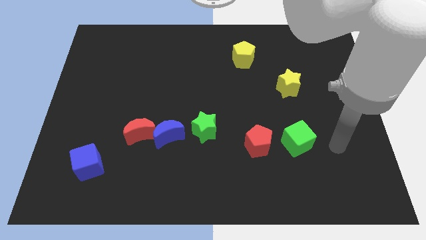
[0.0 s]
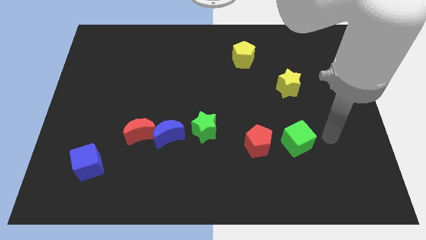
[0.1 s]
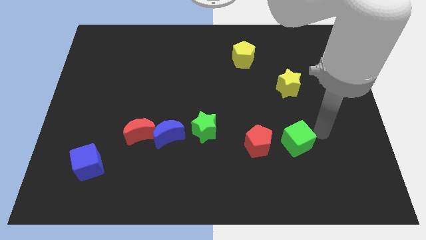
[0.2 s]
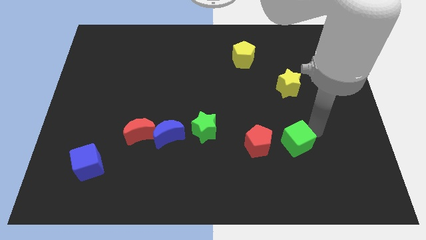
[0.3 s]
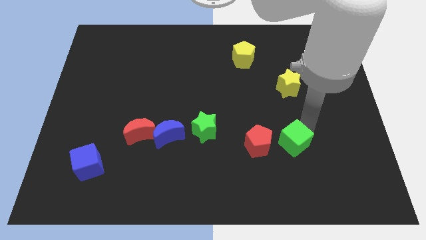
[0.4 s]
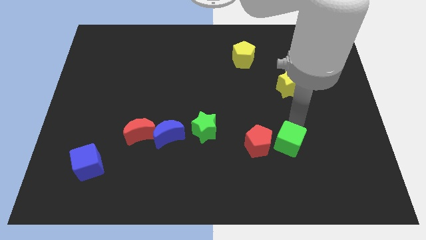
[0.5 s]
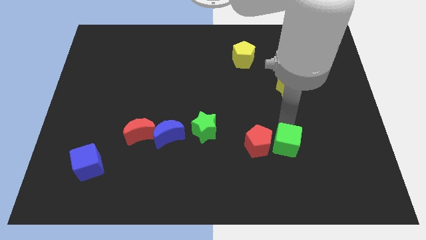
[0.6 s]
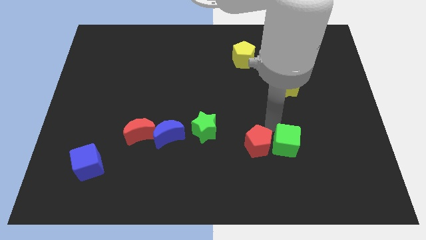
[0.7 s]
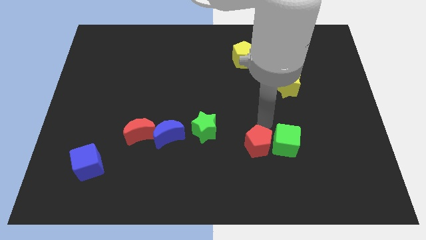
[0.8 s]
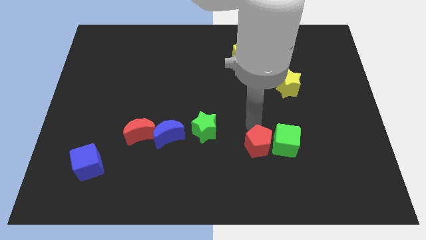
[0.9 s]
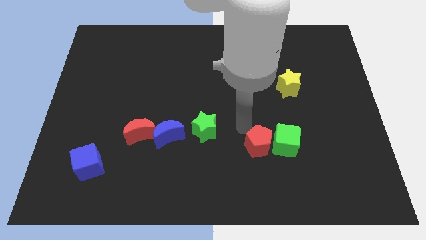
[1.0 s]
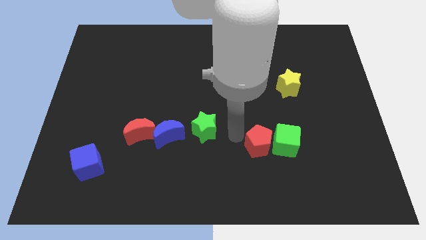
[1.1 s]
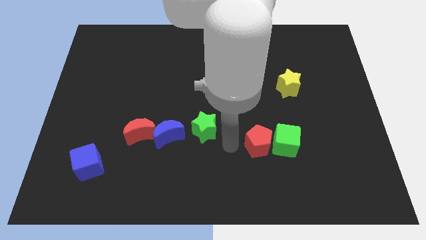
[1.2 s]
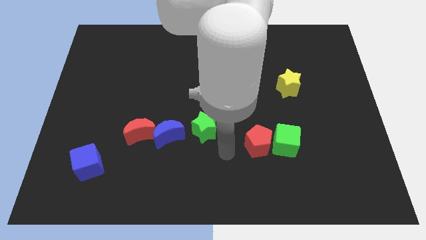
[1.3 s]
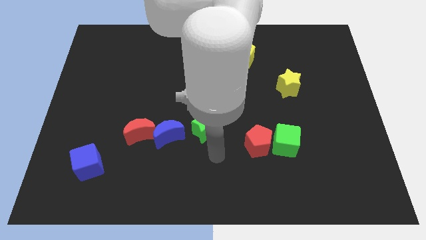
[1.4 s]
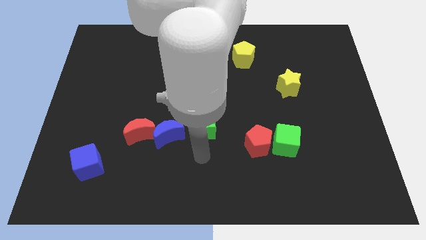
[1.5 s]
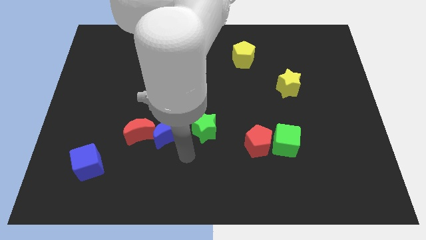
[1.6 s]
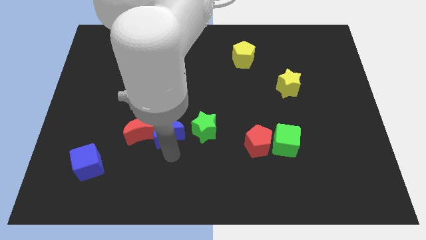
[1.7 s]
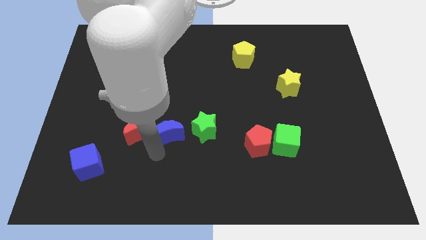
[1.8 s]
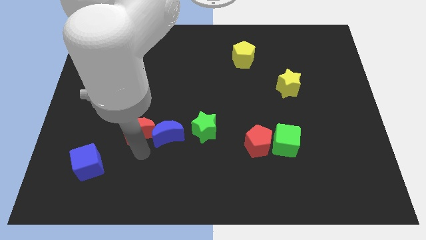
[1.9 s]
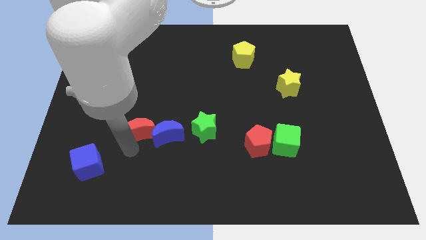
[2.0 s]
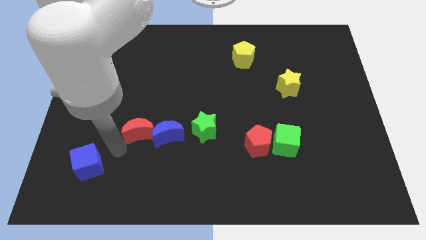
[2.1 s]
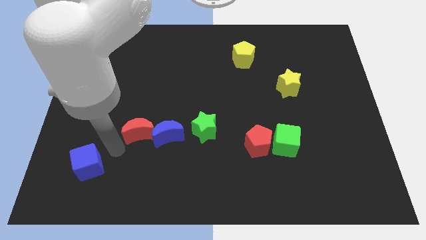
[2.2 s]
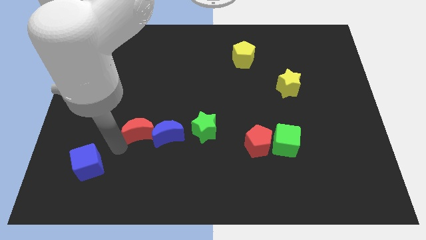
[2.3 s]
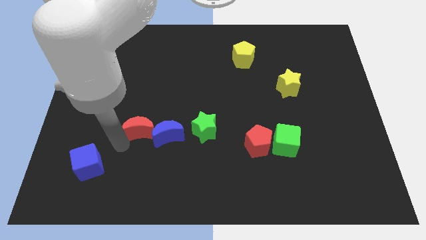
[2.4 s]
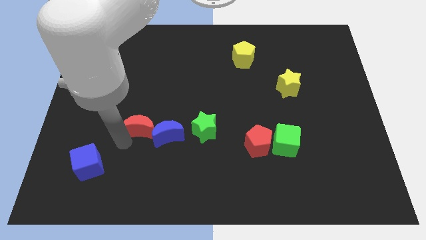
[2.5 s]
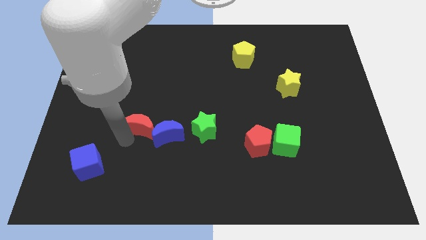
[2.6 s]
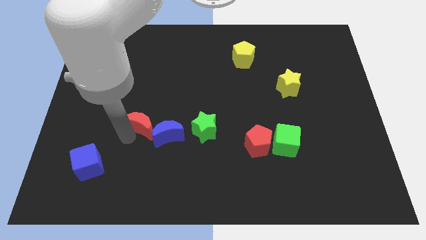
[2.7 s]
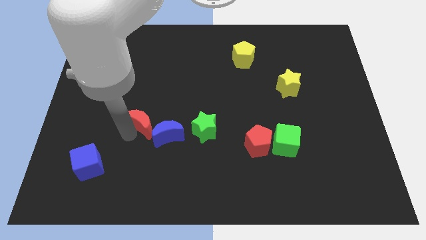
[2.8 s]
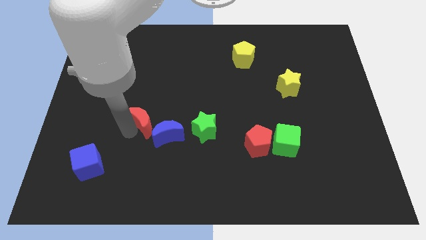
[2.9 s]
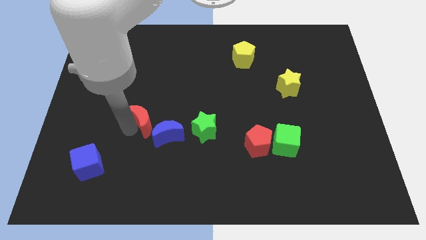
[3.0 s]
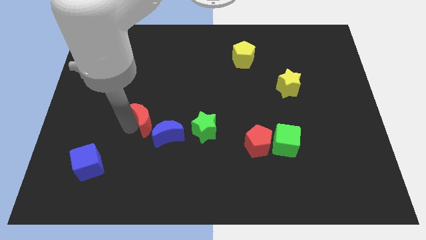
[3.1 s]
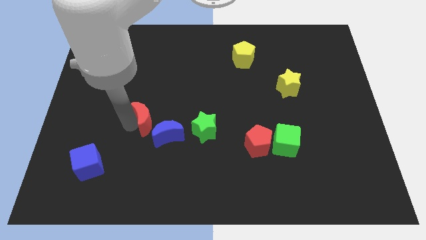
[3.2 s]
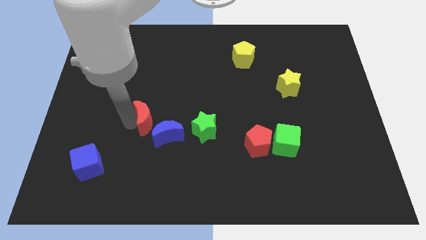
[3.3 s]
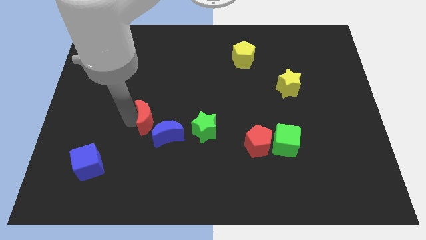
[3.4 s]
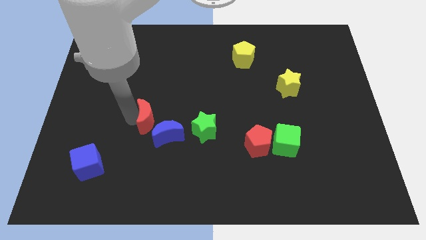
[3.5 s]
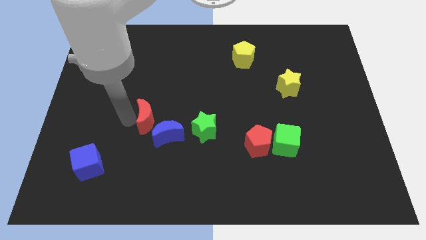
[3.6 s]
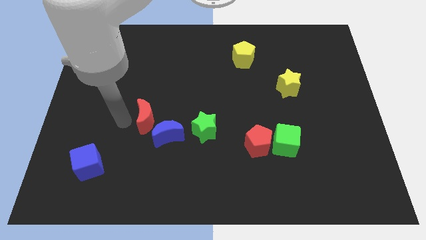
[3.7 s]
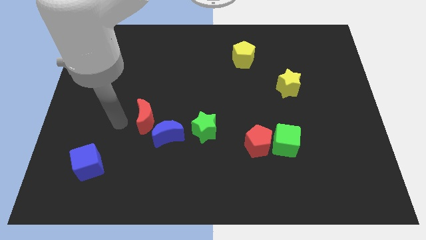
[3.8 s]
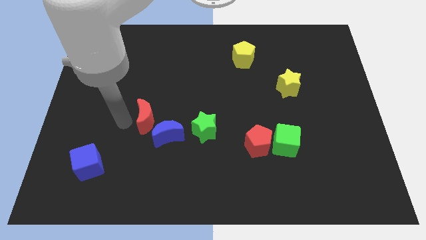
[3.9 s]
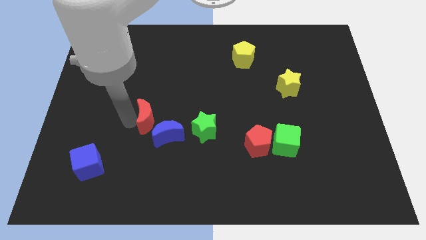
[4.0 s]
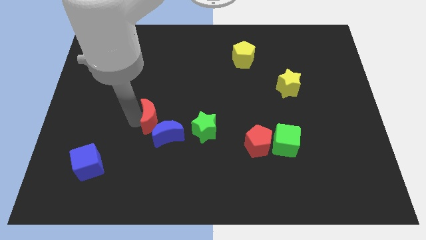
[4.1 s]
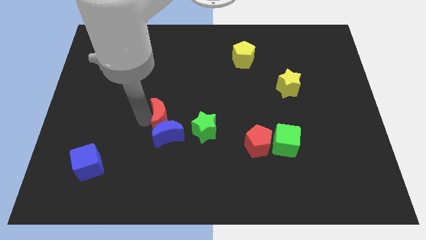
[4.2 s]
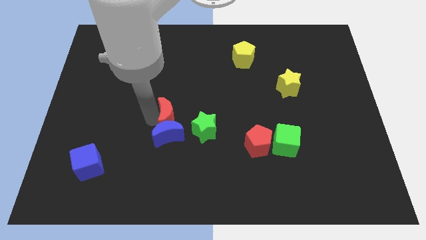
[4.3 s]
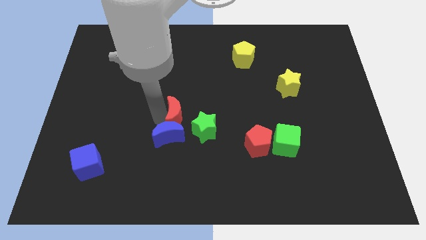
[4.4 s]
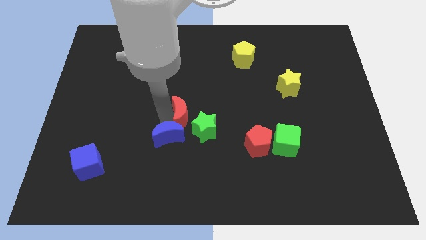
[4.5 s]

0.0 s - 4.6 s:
slide the red moon right somewhat

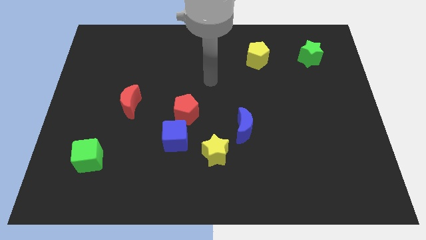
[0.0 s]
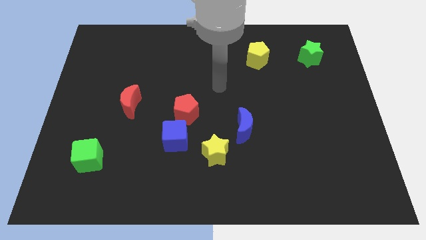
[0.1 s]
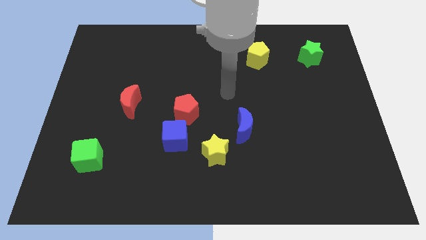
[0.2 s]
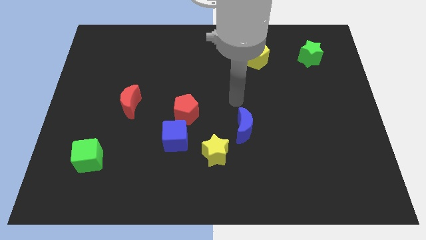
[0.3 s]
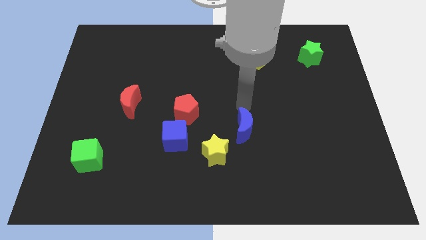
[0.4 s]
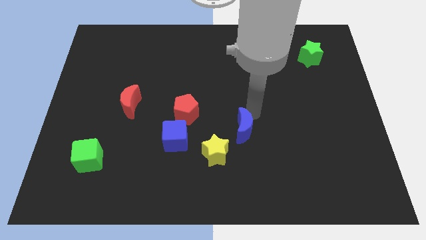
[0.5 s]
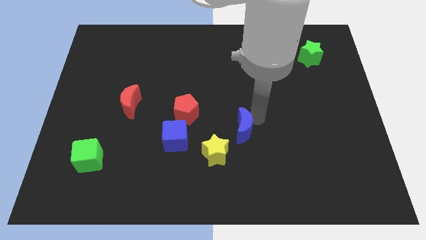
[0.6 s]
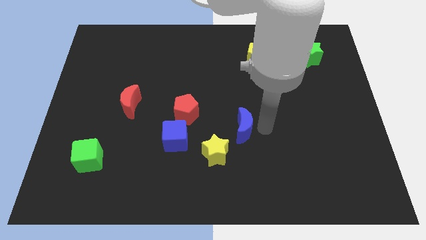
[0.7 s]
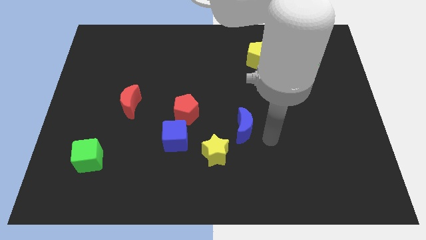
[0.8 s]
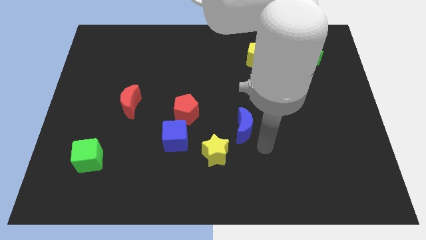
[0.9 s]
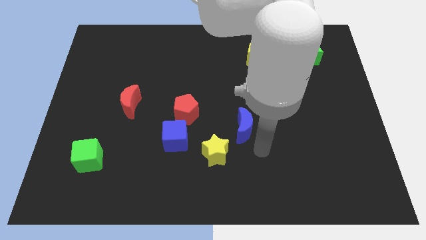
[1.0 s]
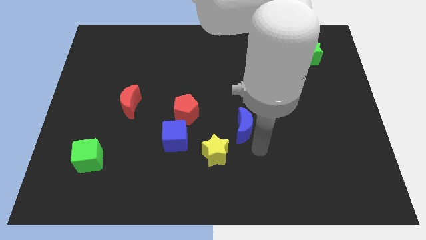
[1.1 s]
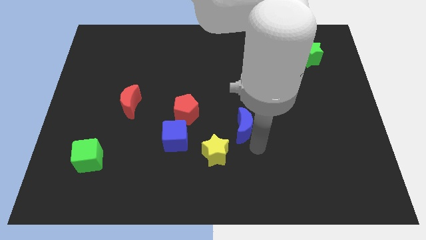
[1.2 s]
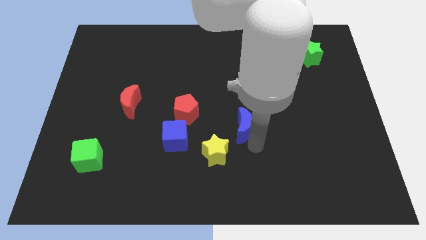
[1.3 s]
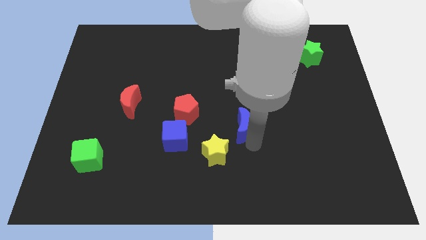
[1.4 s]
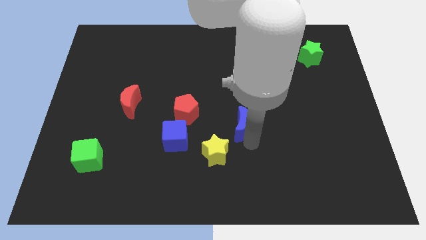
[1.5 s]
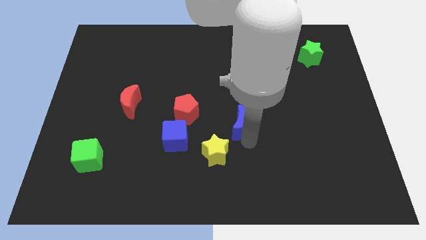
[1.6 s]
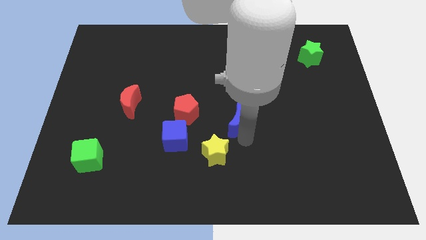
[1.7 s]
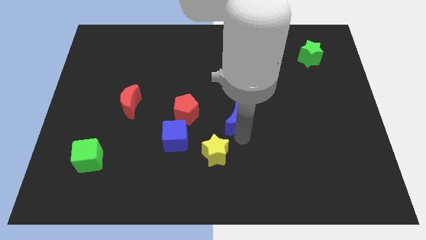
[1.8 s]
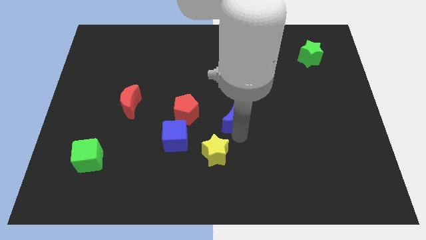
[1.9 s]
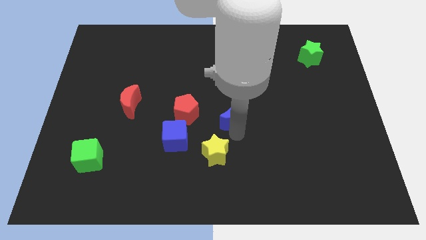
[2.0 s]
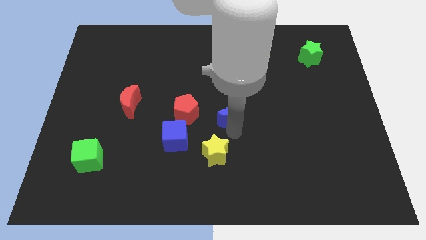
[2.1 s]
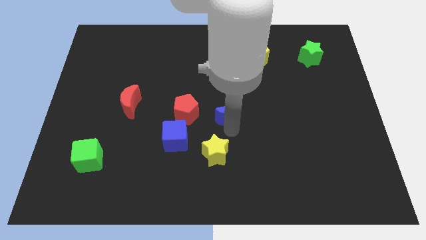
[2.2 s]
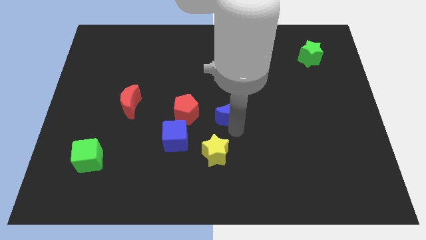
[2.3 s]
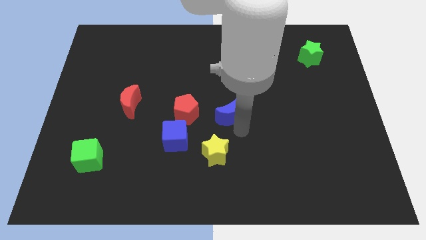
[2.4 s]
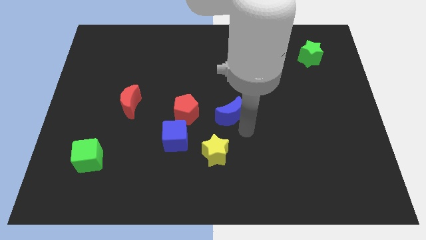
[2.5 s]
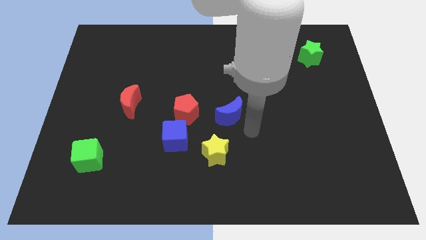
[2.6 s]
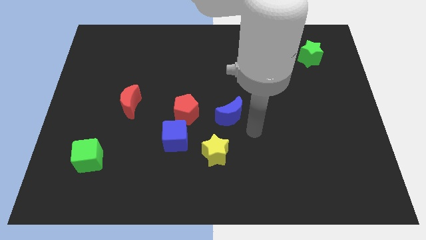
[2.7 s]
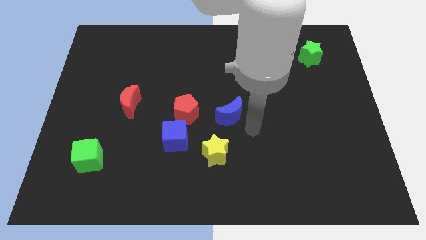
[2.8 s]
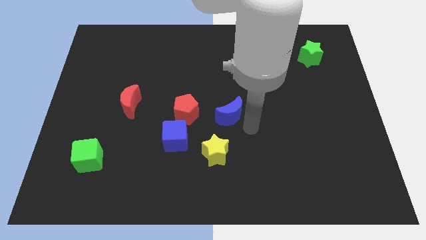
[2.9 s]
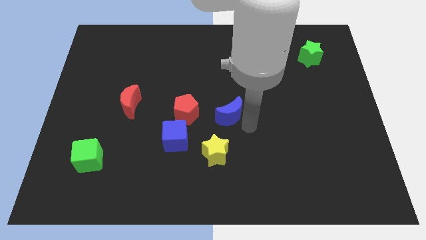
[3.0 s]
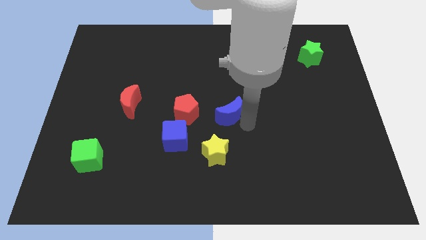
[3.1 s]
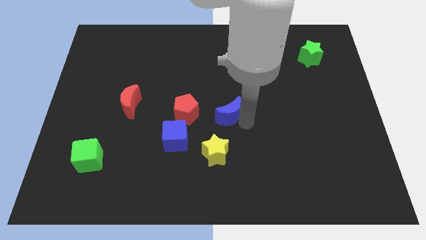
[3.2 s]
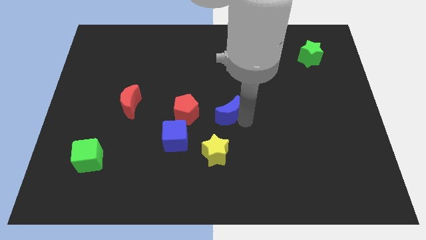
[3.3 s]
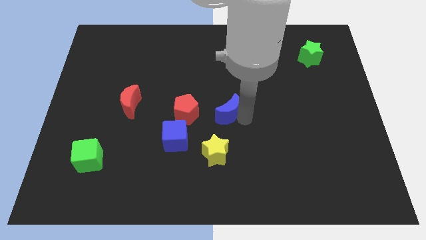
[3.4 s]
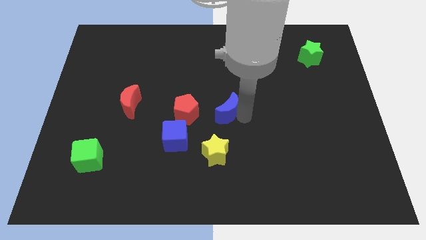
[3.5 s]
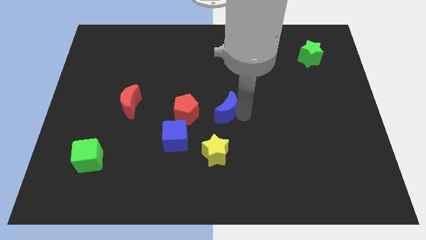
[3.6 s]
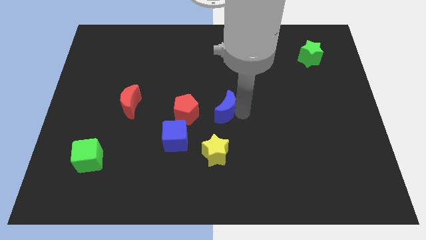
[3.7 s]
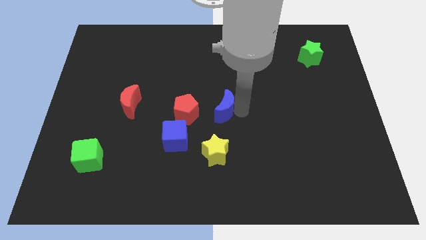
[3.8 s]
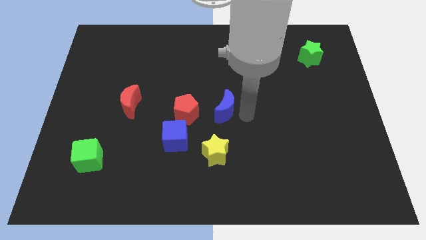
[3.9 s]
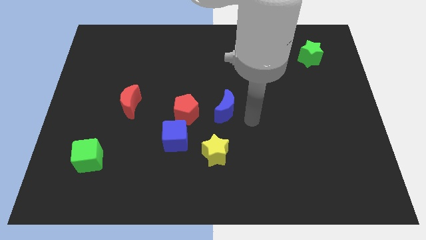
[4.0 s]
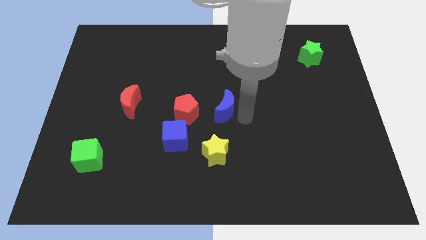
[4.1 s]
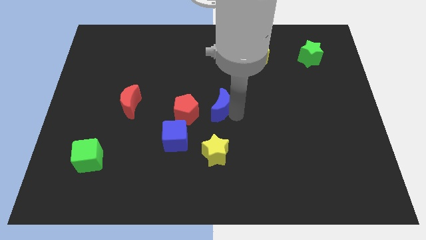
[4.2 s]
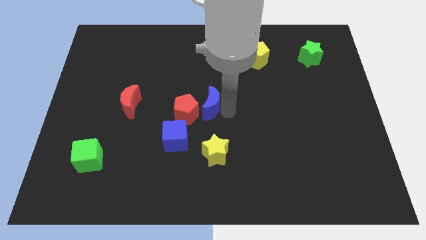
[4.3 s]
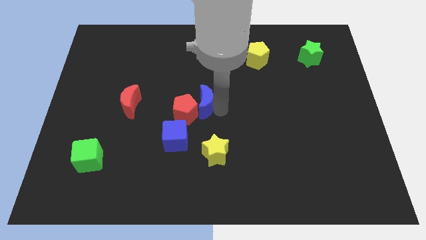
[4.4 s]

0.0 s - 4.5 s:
slide the blue moon to the left slightly
